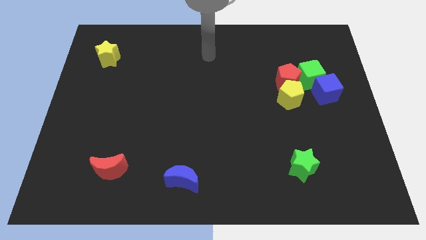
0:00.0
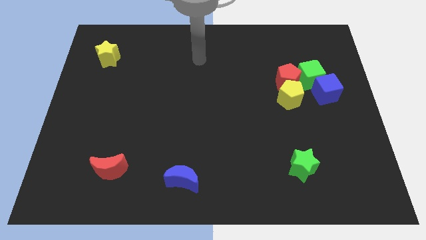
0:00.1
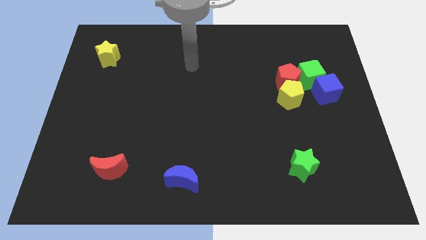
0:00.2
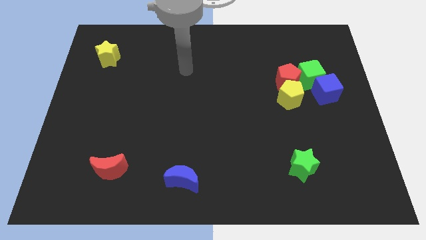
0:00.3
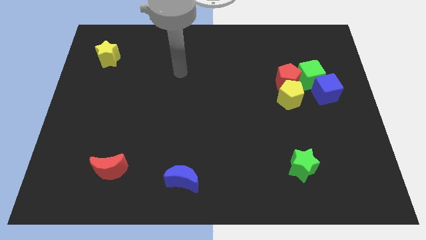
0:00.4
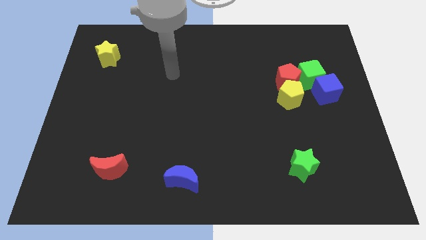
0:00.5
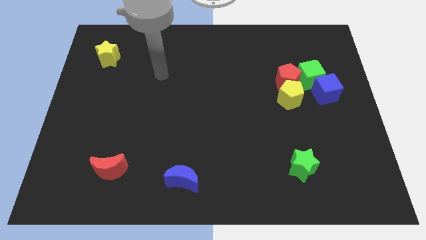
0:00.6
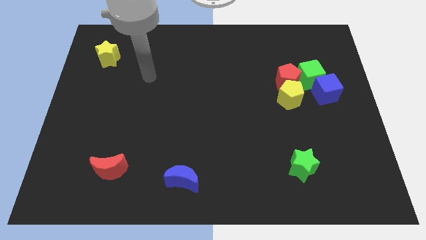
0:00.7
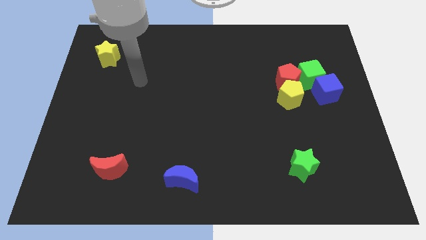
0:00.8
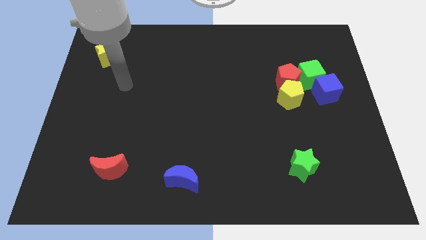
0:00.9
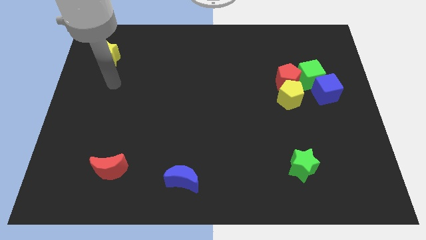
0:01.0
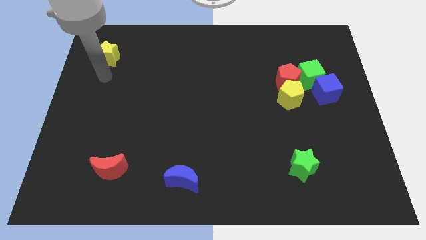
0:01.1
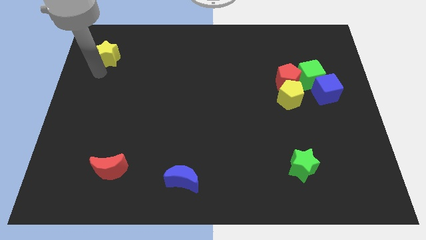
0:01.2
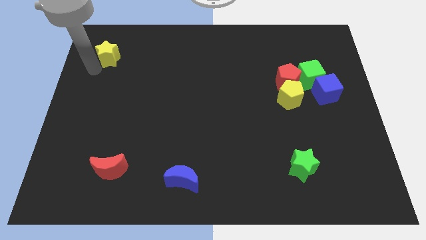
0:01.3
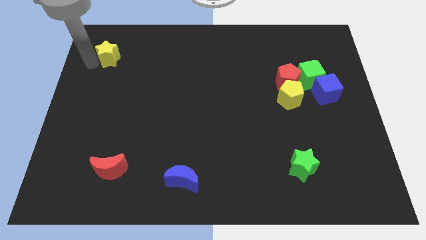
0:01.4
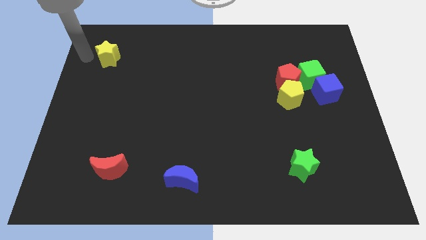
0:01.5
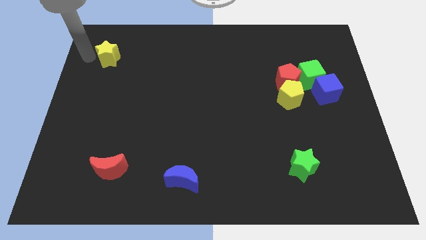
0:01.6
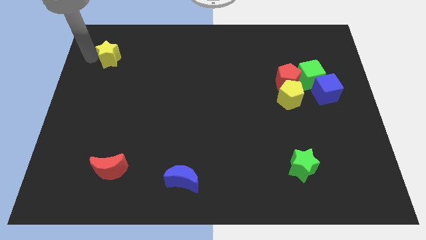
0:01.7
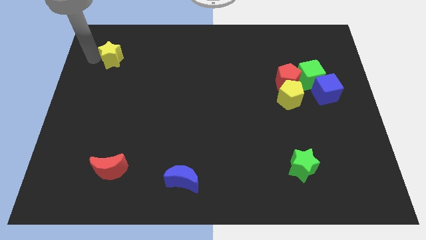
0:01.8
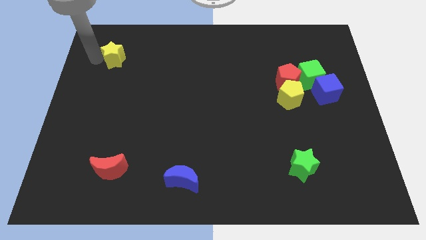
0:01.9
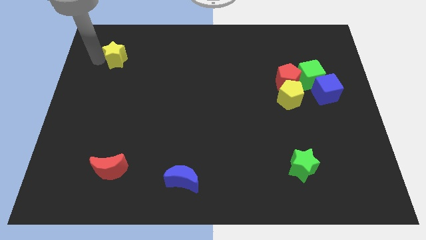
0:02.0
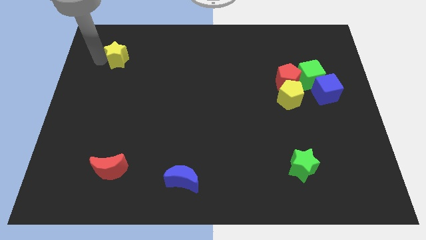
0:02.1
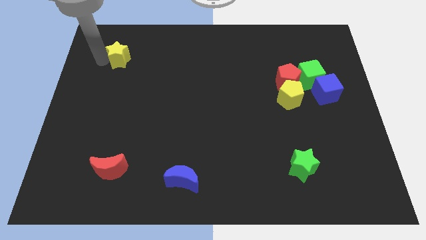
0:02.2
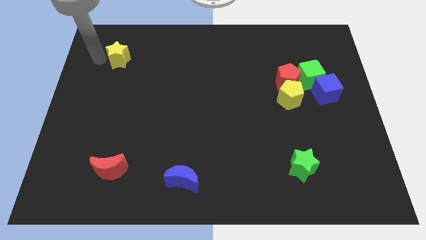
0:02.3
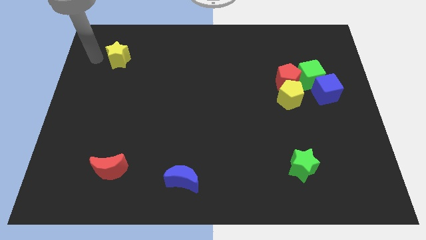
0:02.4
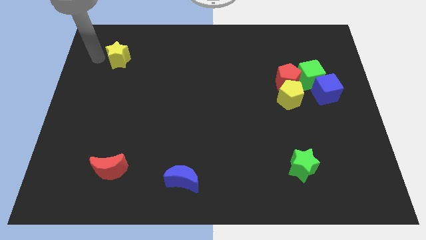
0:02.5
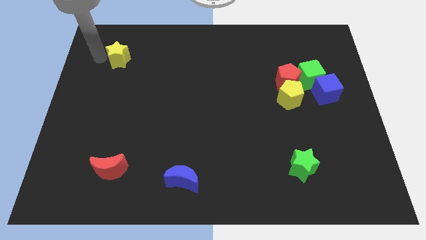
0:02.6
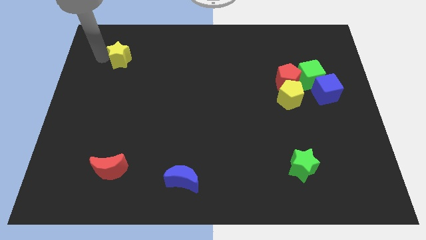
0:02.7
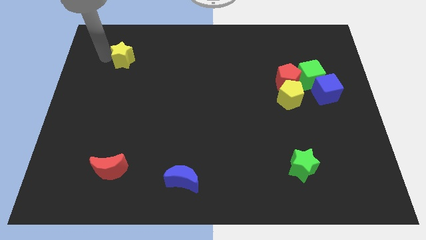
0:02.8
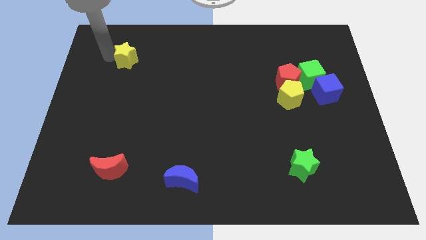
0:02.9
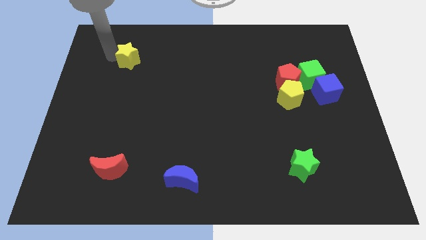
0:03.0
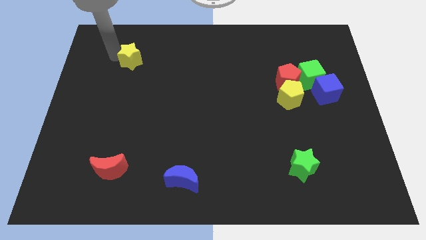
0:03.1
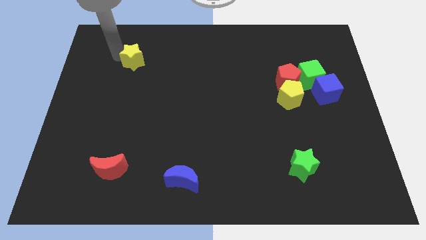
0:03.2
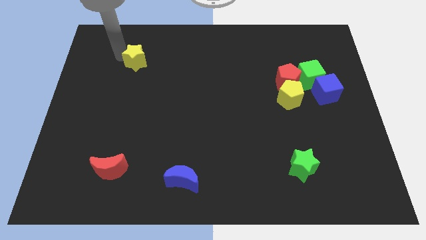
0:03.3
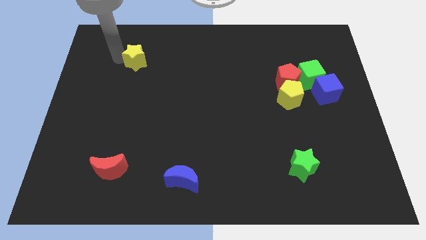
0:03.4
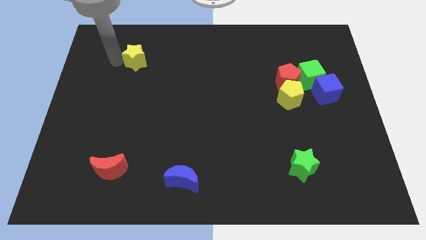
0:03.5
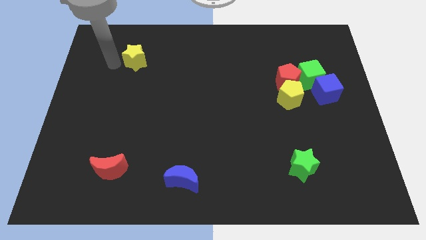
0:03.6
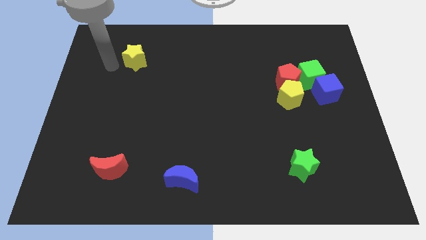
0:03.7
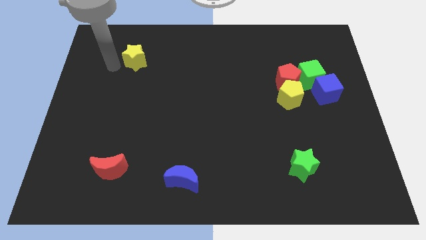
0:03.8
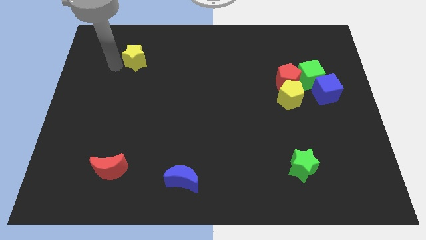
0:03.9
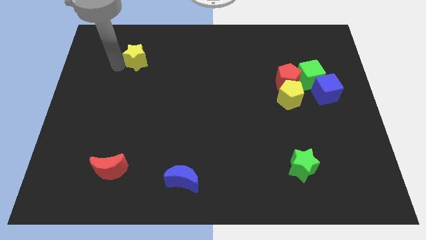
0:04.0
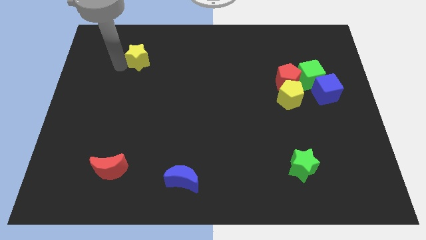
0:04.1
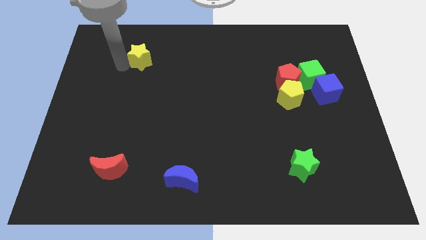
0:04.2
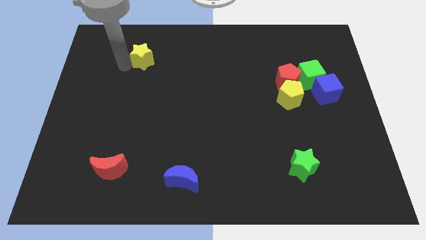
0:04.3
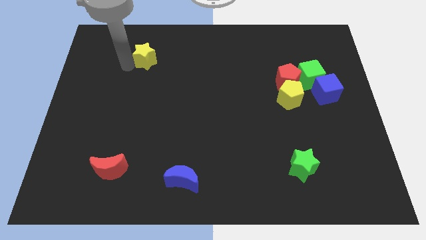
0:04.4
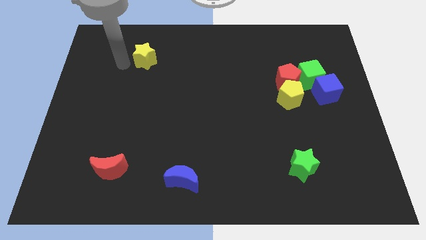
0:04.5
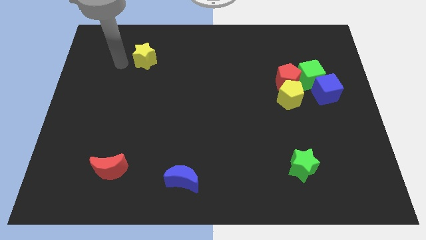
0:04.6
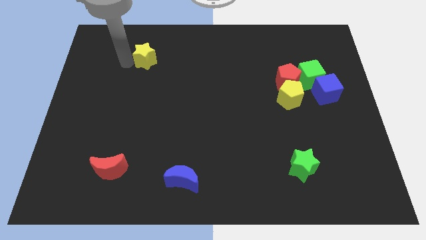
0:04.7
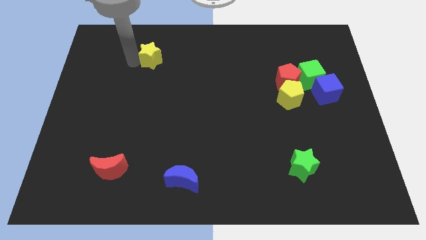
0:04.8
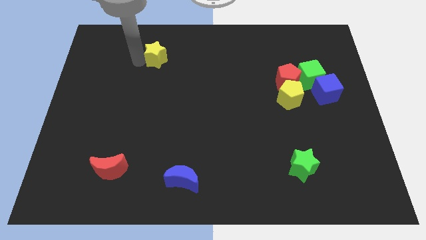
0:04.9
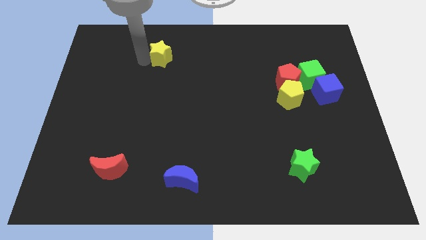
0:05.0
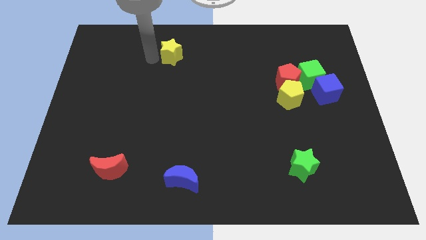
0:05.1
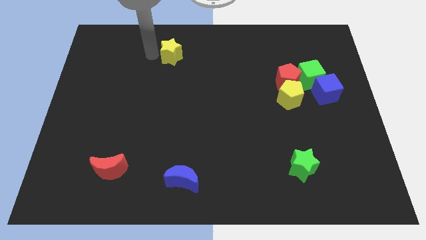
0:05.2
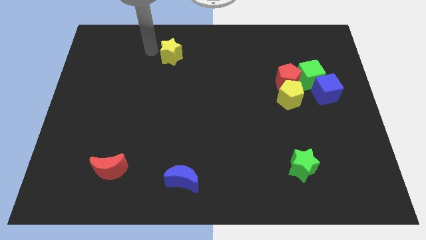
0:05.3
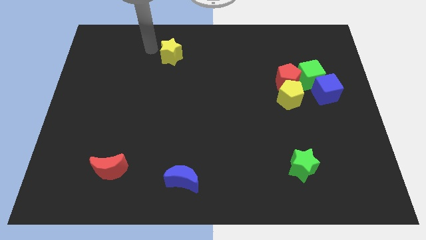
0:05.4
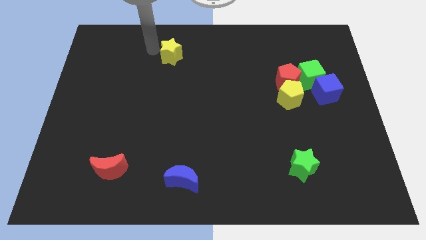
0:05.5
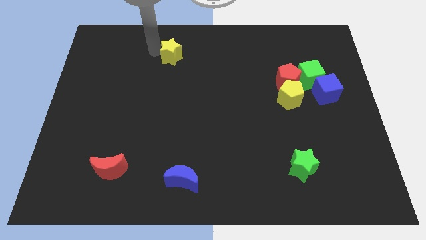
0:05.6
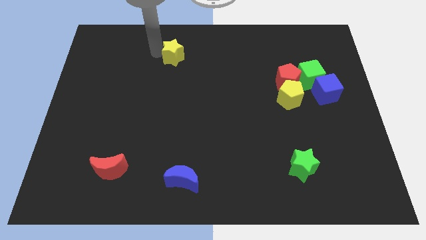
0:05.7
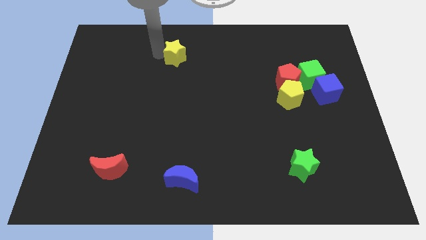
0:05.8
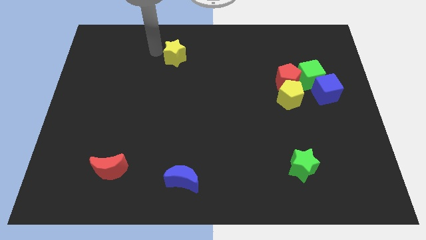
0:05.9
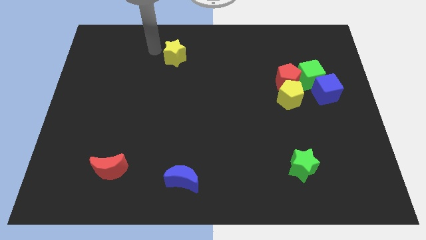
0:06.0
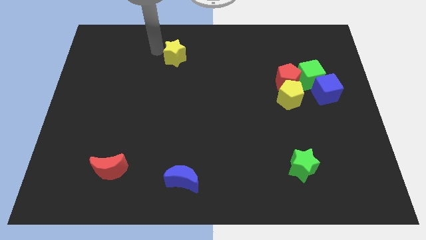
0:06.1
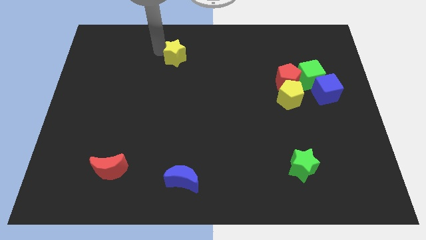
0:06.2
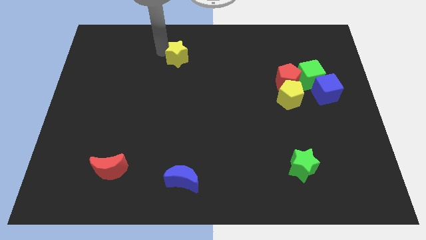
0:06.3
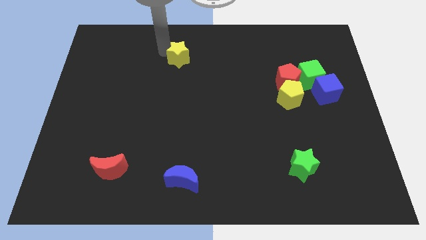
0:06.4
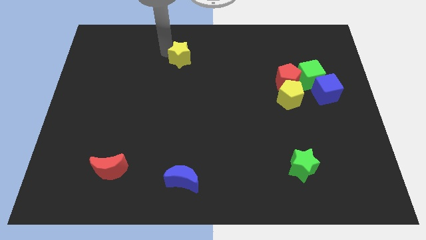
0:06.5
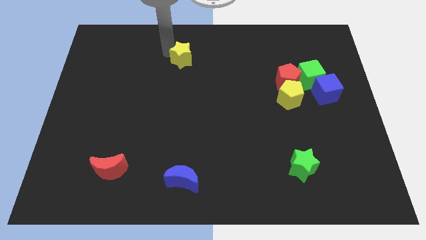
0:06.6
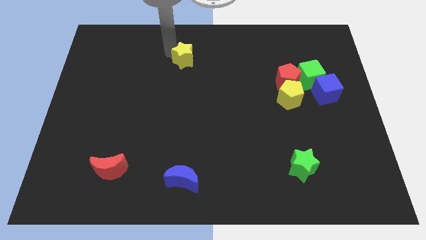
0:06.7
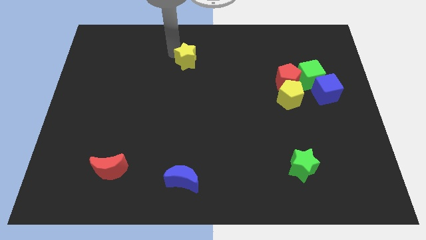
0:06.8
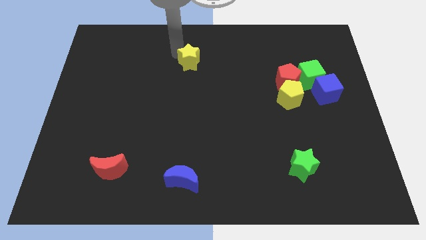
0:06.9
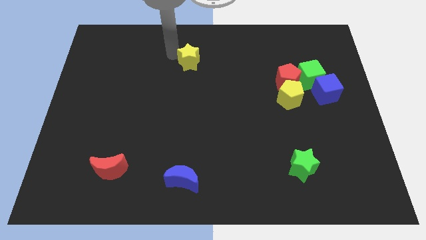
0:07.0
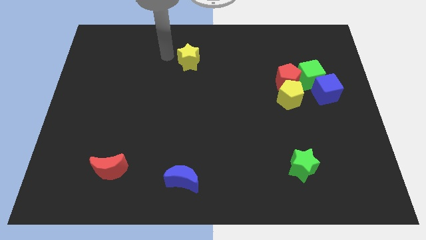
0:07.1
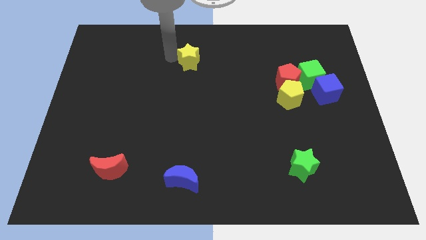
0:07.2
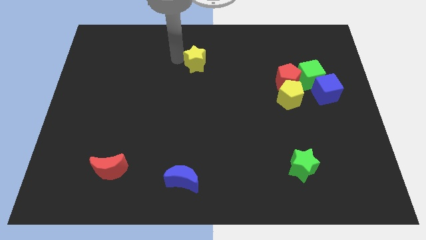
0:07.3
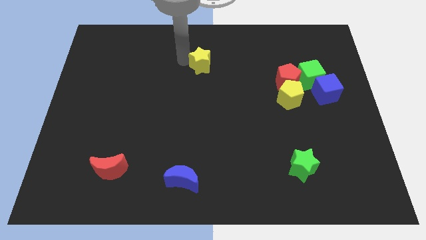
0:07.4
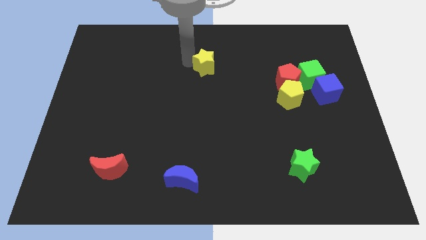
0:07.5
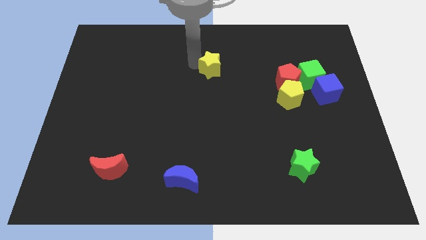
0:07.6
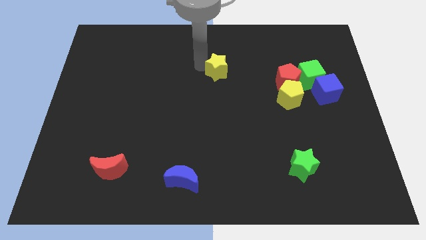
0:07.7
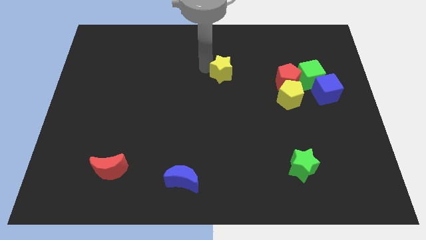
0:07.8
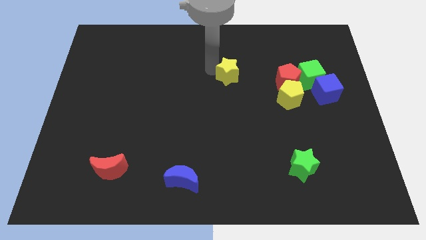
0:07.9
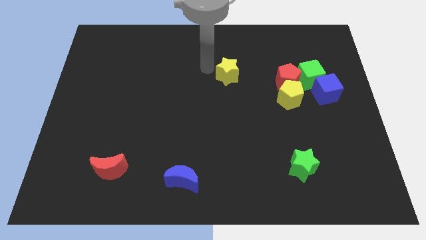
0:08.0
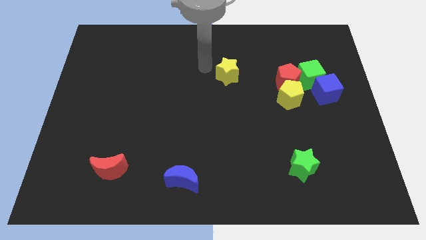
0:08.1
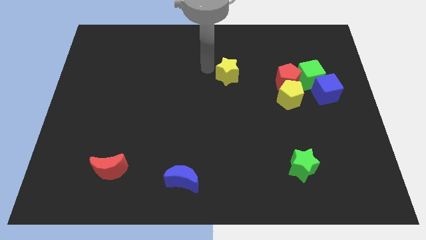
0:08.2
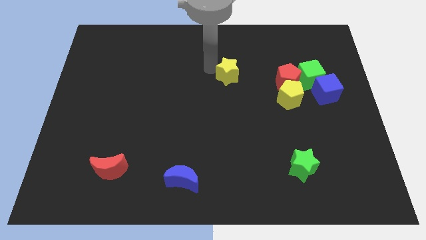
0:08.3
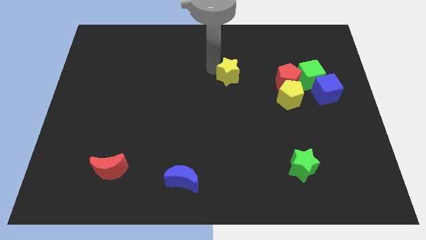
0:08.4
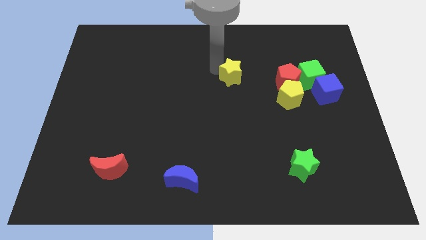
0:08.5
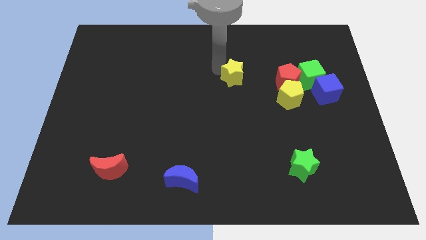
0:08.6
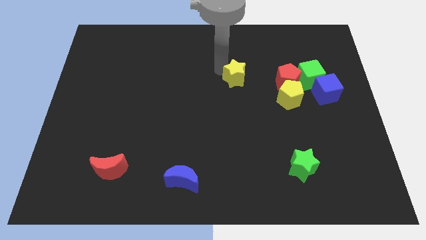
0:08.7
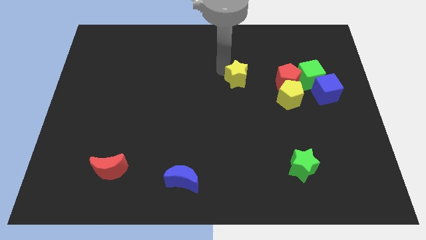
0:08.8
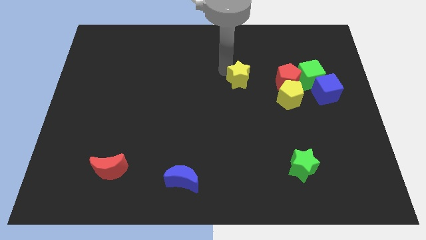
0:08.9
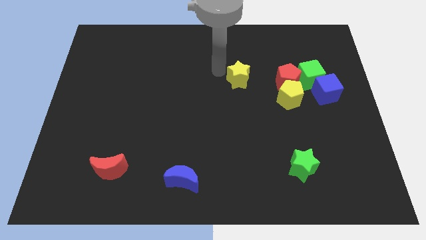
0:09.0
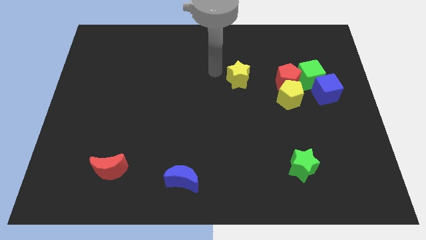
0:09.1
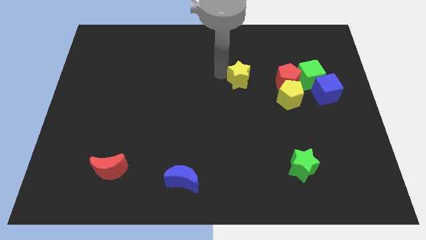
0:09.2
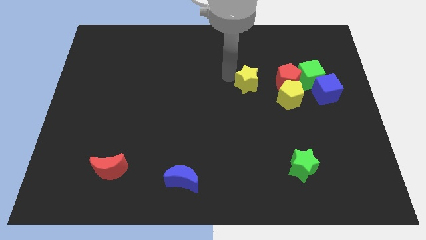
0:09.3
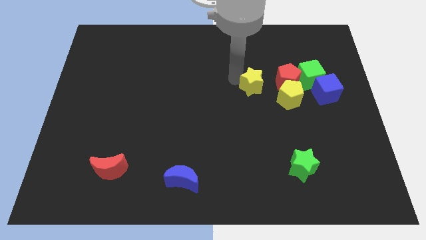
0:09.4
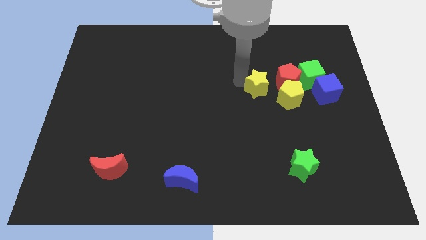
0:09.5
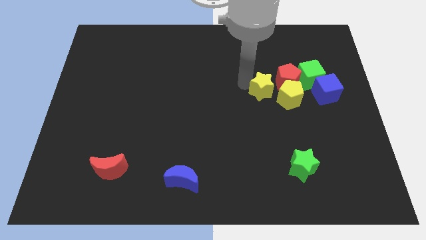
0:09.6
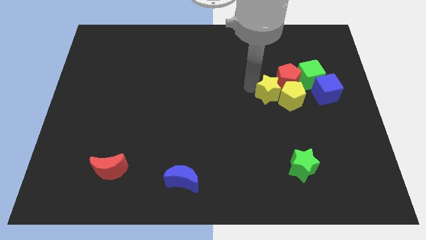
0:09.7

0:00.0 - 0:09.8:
move the yellow star towards the yellow pentagon
